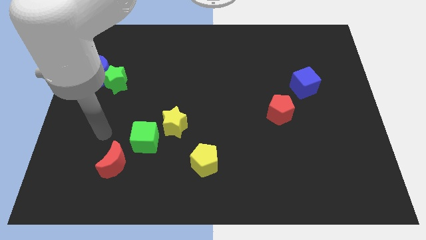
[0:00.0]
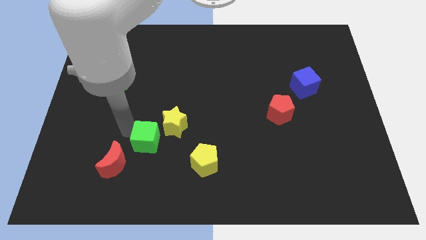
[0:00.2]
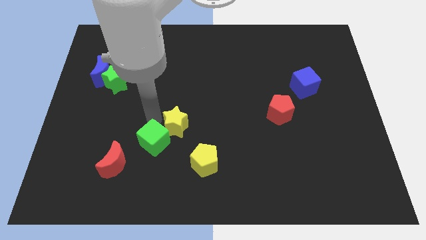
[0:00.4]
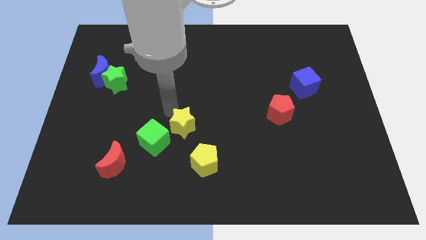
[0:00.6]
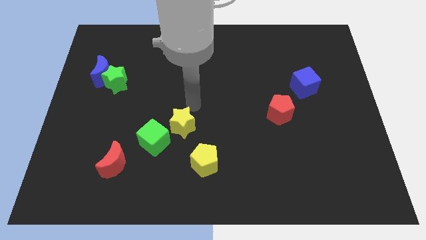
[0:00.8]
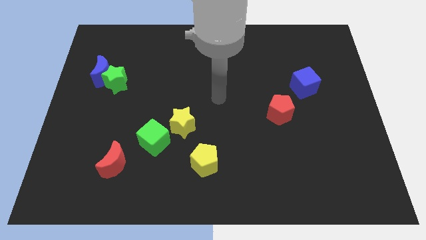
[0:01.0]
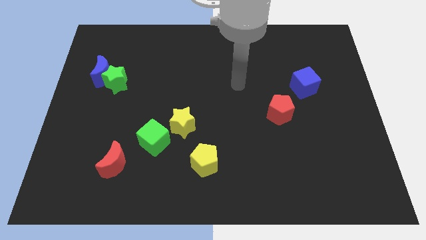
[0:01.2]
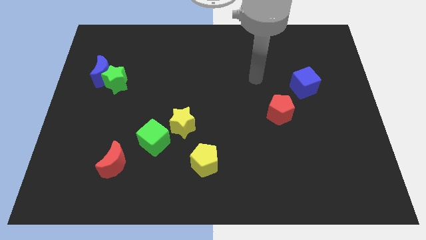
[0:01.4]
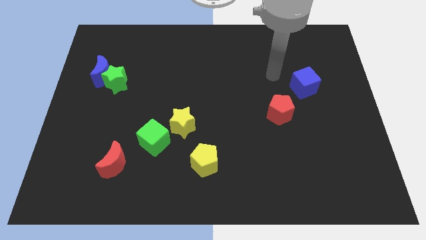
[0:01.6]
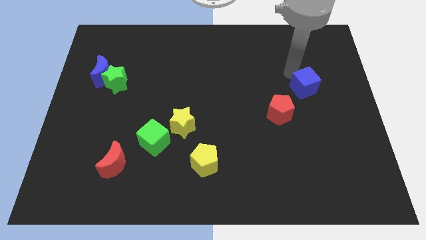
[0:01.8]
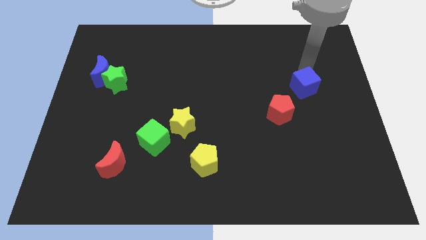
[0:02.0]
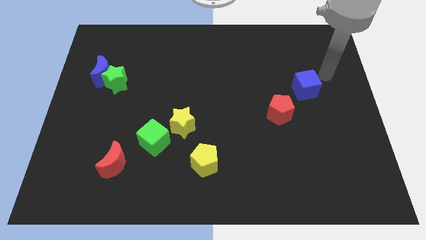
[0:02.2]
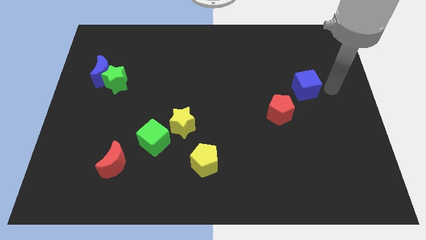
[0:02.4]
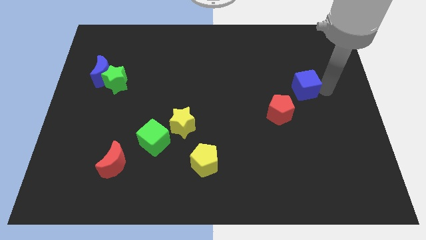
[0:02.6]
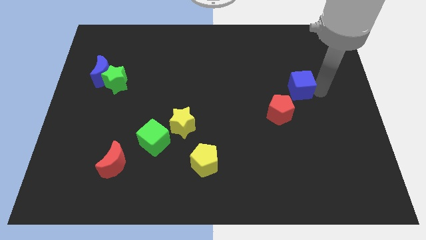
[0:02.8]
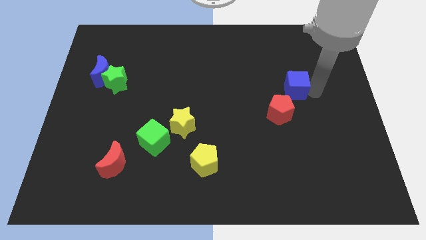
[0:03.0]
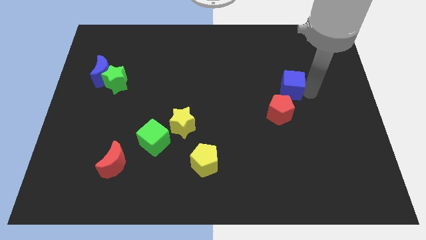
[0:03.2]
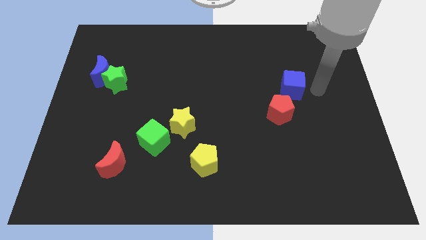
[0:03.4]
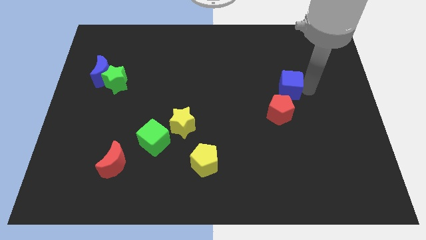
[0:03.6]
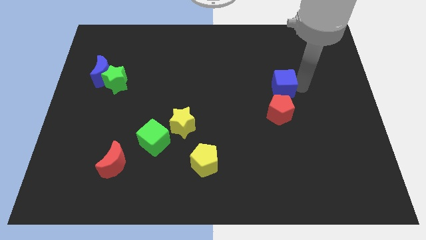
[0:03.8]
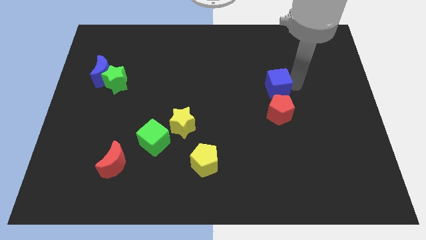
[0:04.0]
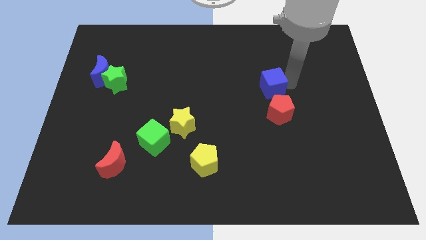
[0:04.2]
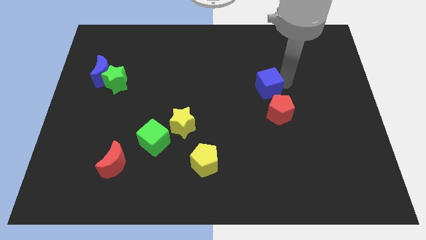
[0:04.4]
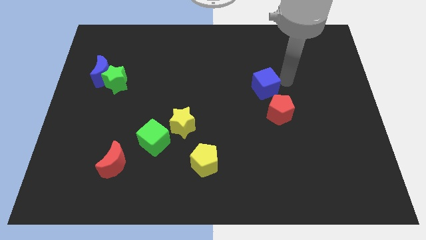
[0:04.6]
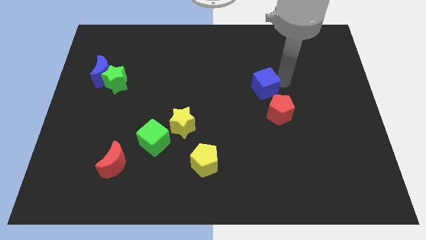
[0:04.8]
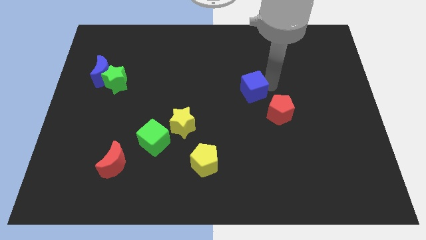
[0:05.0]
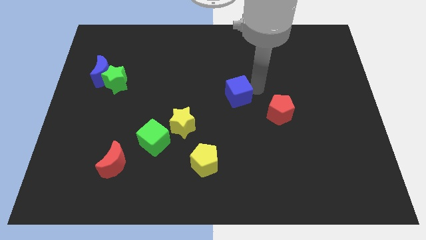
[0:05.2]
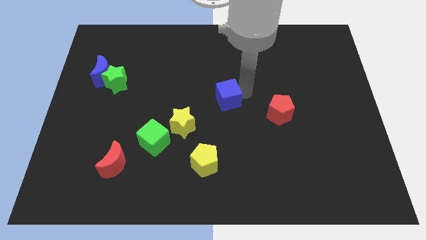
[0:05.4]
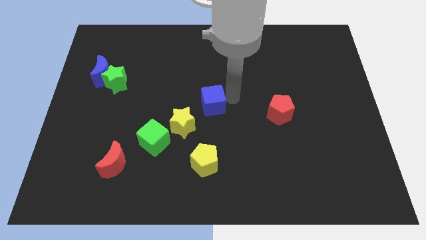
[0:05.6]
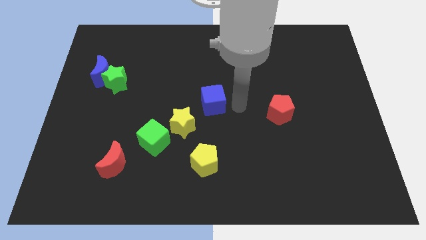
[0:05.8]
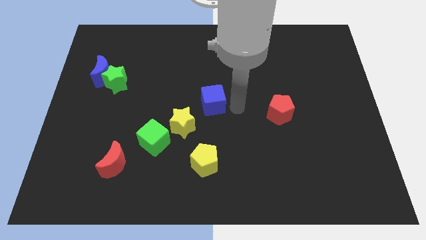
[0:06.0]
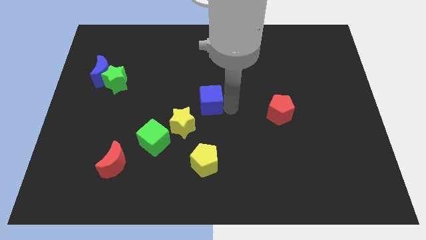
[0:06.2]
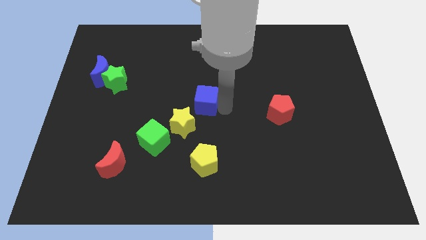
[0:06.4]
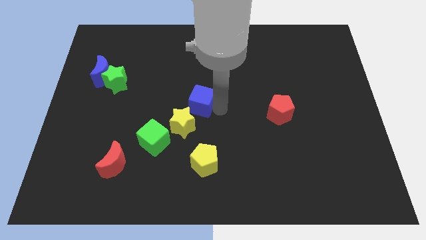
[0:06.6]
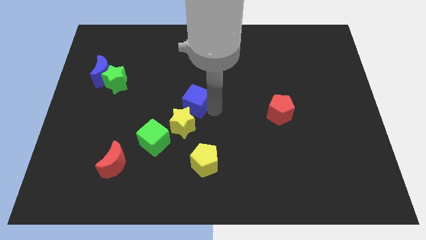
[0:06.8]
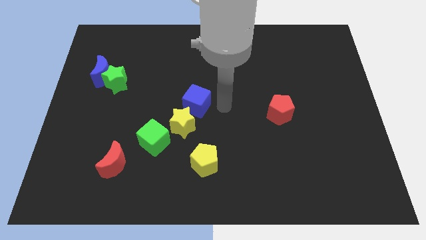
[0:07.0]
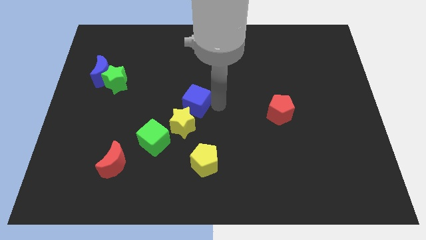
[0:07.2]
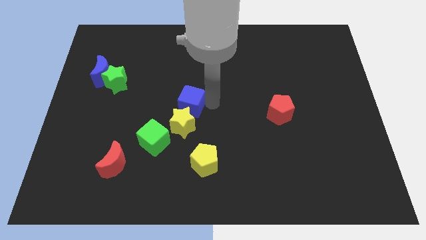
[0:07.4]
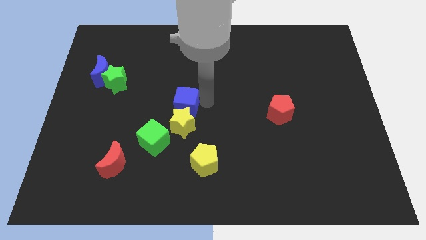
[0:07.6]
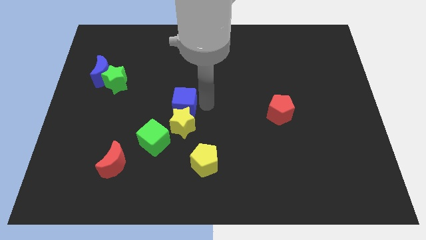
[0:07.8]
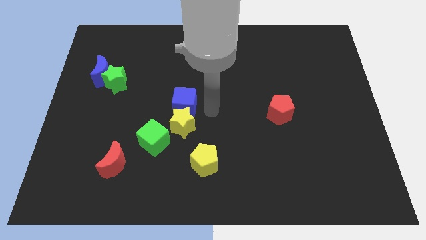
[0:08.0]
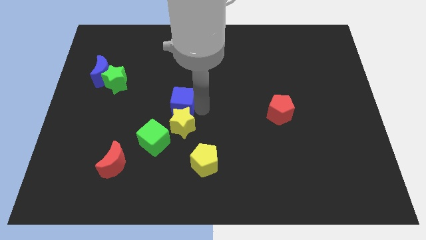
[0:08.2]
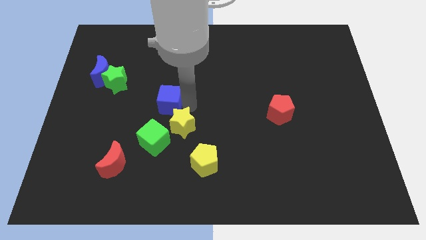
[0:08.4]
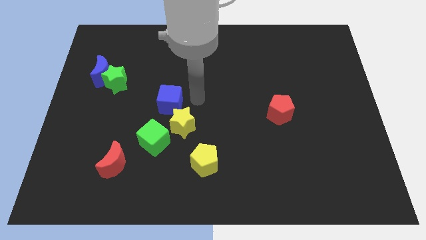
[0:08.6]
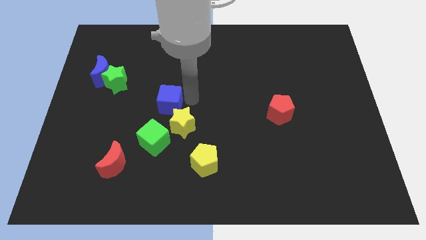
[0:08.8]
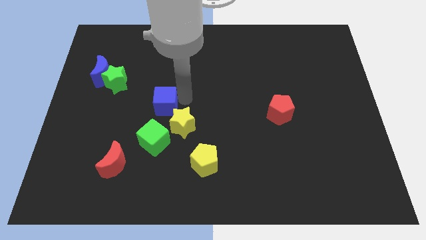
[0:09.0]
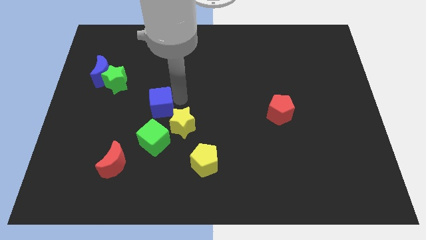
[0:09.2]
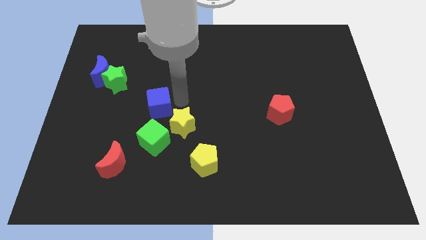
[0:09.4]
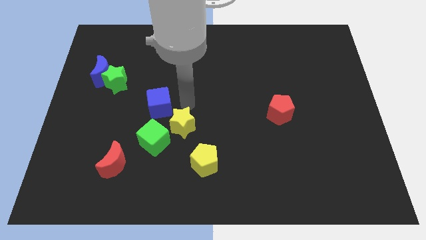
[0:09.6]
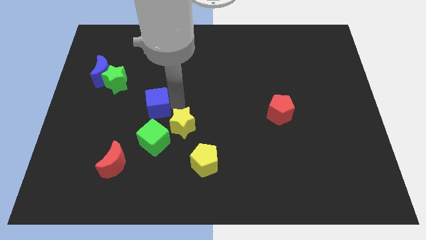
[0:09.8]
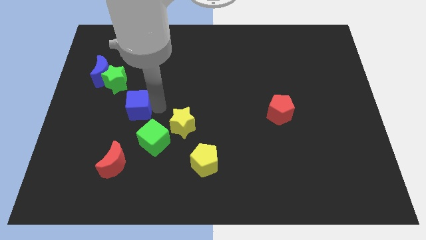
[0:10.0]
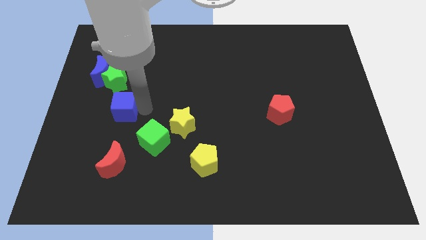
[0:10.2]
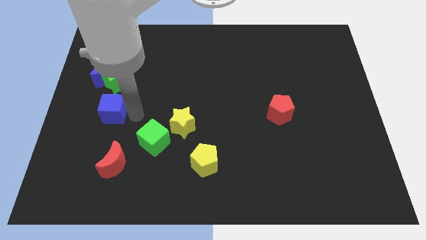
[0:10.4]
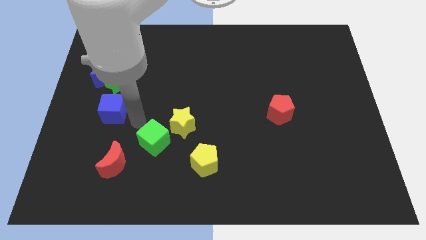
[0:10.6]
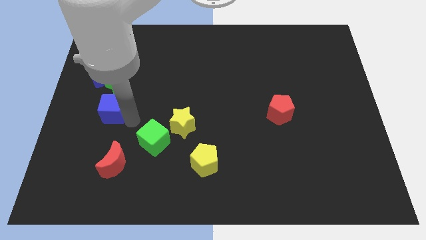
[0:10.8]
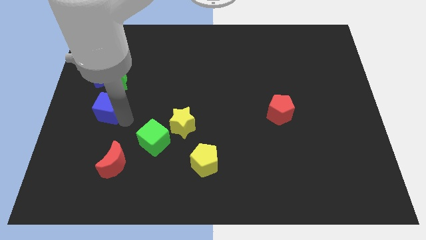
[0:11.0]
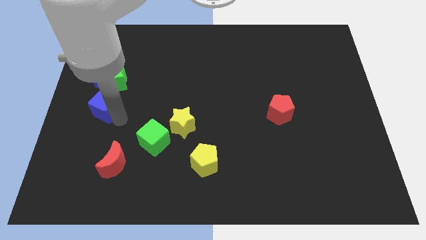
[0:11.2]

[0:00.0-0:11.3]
push the blue cube to the left side
